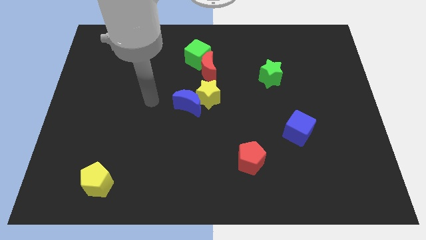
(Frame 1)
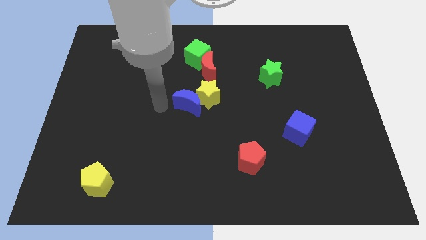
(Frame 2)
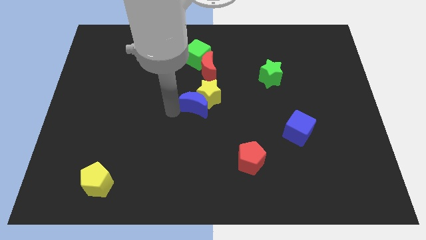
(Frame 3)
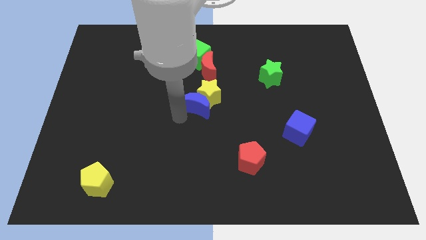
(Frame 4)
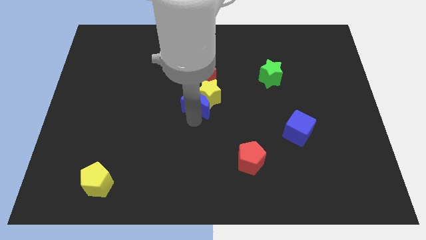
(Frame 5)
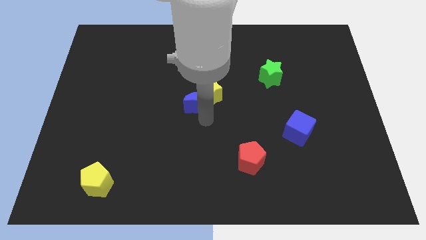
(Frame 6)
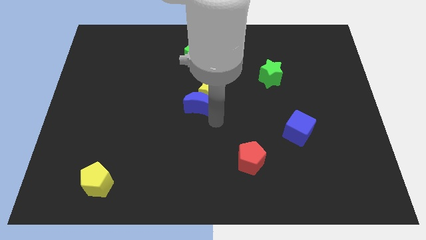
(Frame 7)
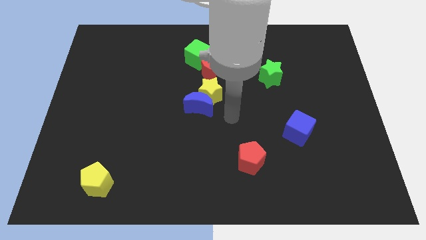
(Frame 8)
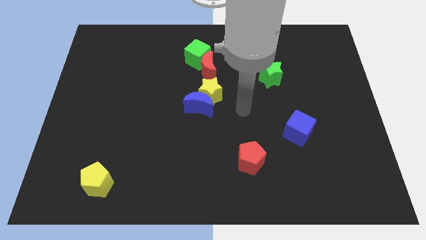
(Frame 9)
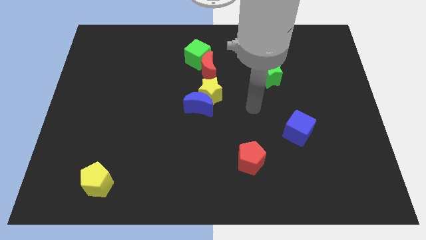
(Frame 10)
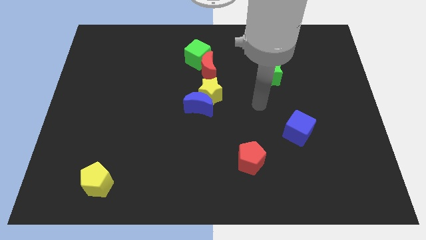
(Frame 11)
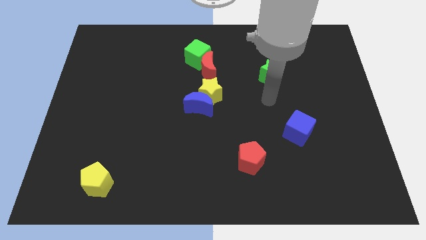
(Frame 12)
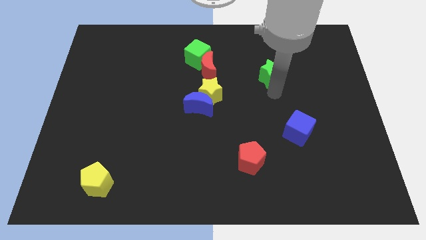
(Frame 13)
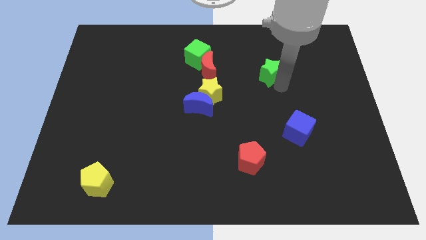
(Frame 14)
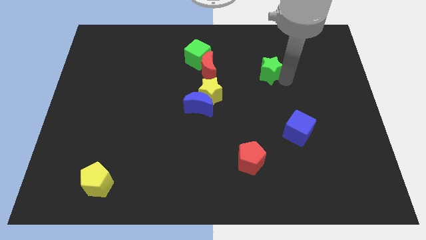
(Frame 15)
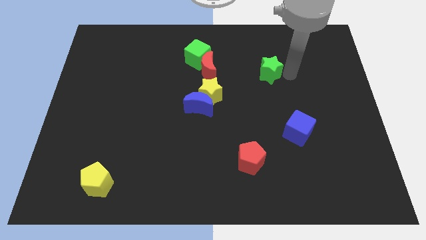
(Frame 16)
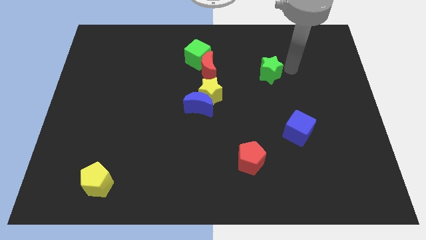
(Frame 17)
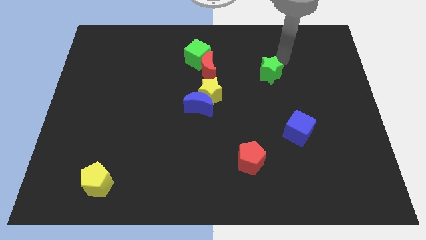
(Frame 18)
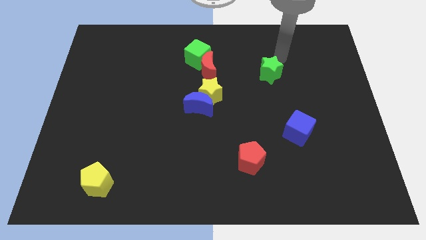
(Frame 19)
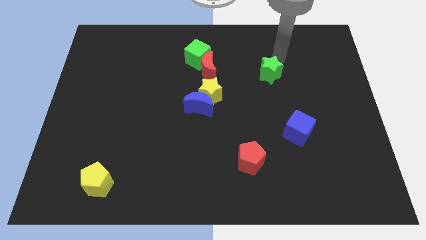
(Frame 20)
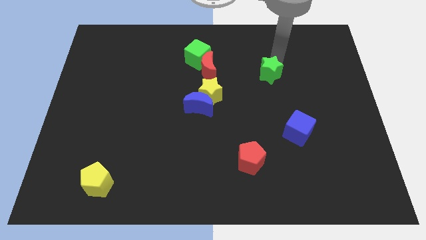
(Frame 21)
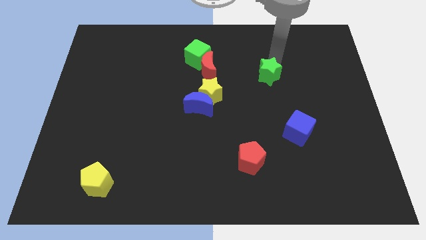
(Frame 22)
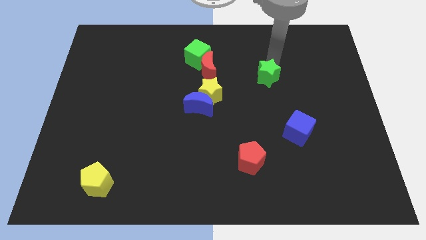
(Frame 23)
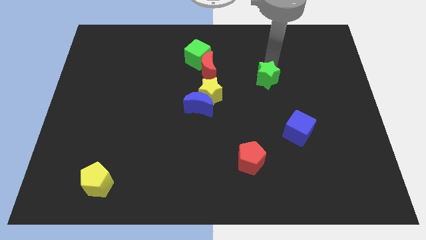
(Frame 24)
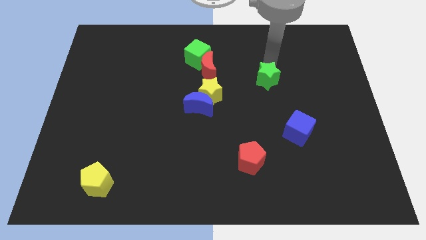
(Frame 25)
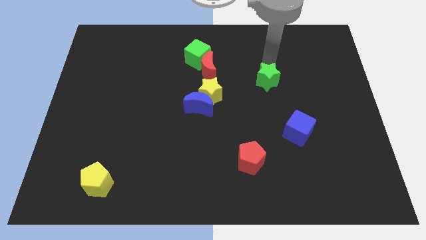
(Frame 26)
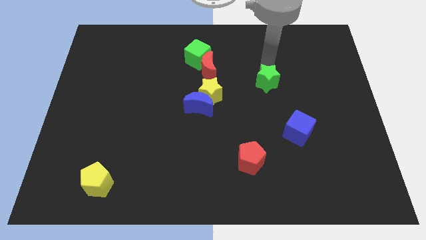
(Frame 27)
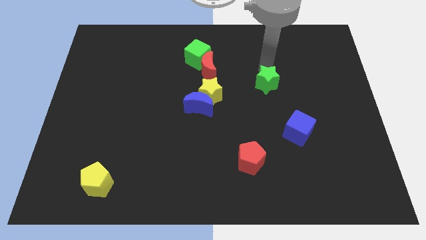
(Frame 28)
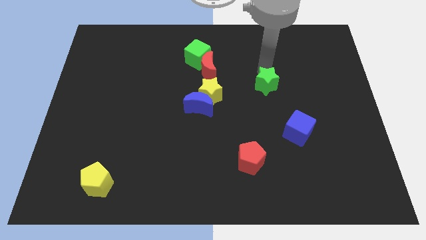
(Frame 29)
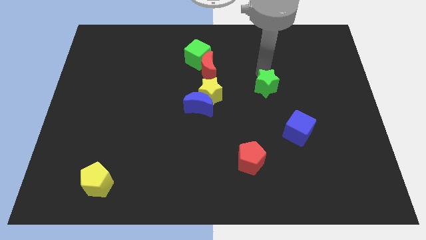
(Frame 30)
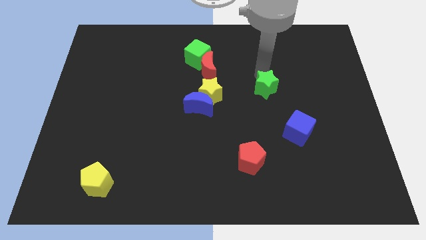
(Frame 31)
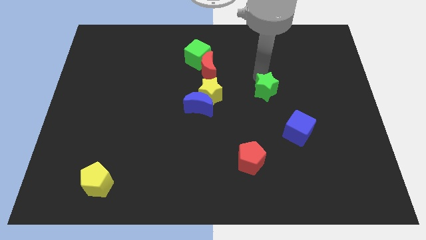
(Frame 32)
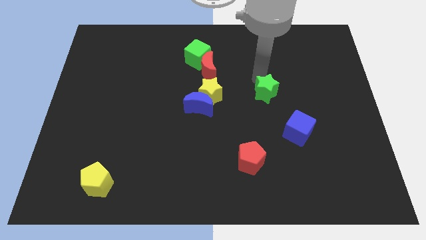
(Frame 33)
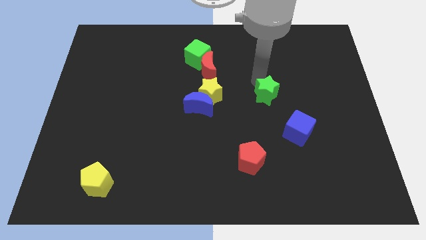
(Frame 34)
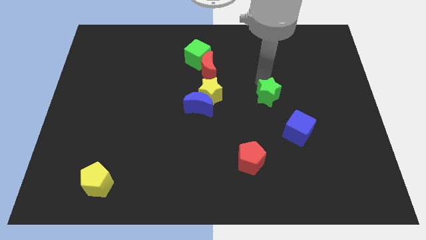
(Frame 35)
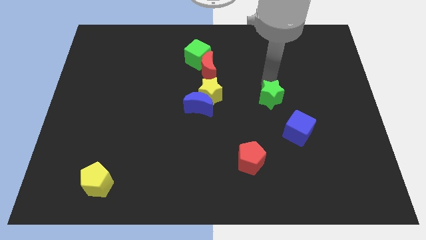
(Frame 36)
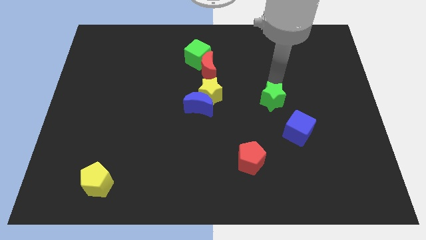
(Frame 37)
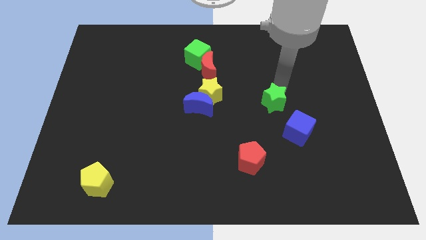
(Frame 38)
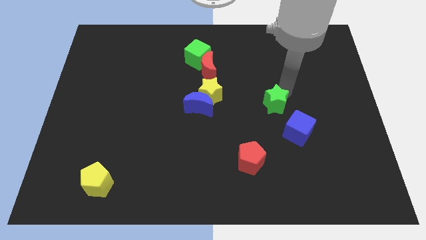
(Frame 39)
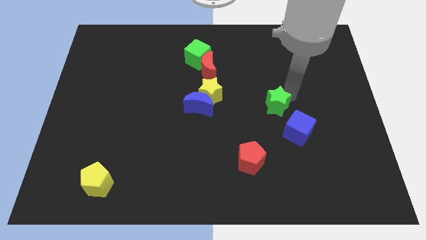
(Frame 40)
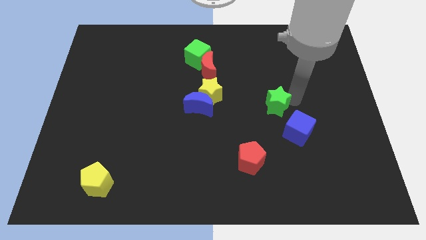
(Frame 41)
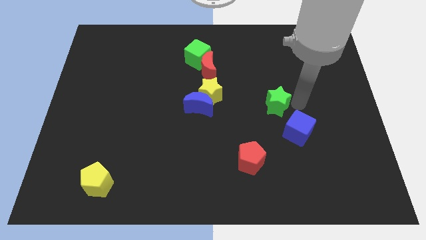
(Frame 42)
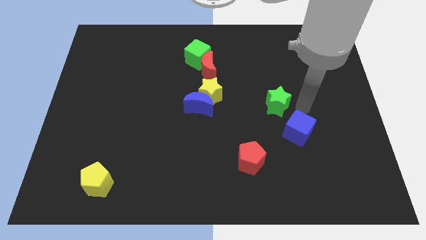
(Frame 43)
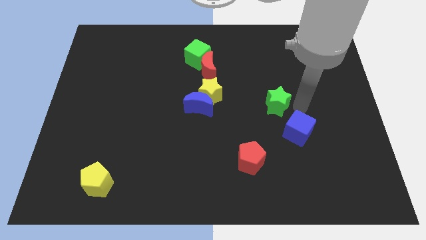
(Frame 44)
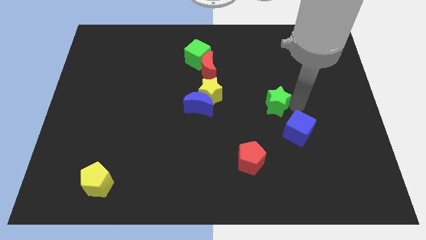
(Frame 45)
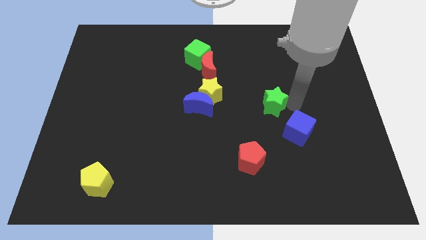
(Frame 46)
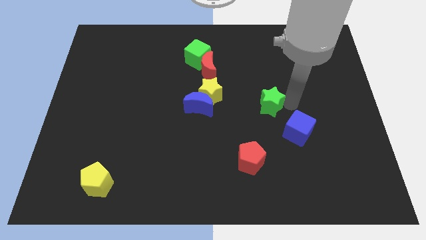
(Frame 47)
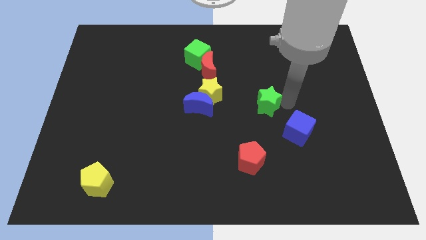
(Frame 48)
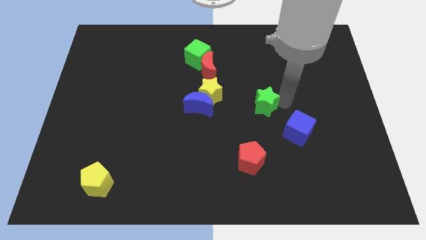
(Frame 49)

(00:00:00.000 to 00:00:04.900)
slide the green star down and left somewhat

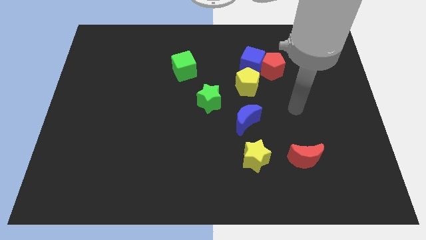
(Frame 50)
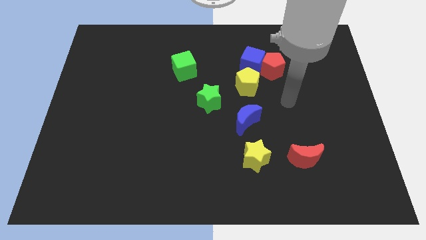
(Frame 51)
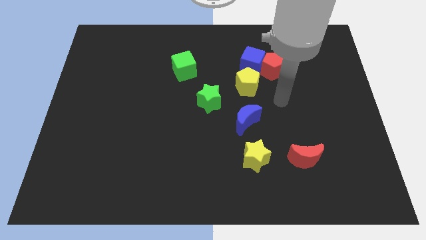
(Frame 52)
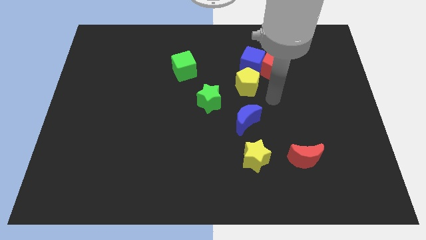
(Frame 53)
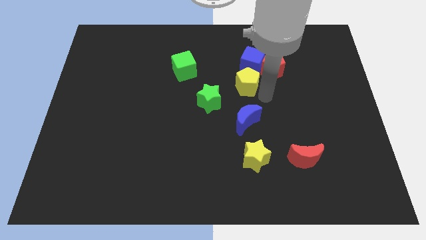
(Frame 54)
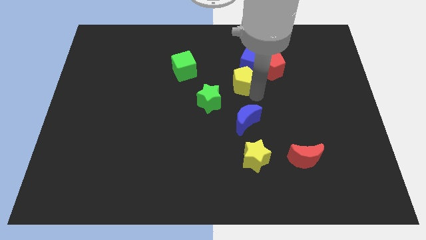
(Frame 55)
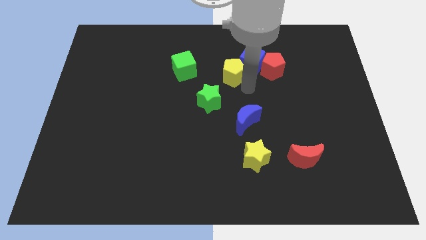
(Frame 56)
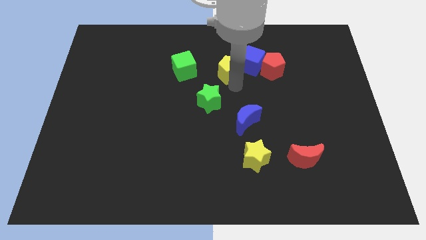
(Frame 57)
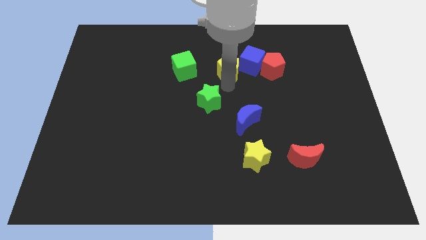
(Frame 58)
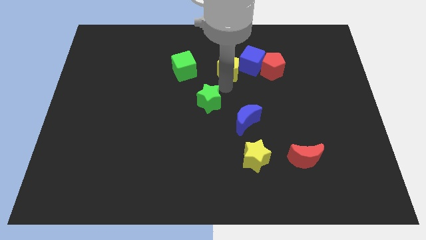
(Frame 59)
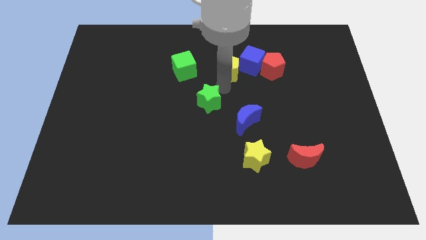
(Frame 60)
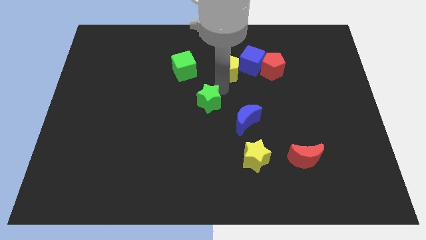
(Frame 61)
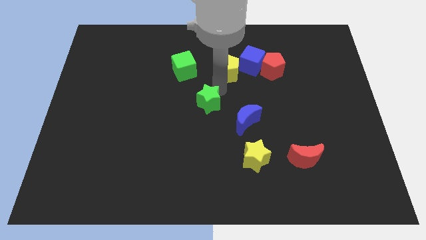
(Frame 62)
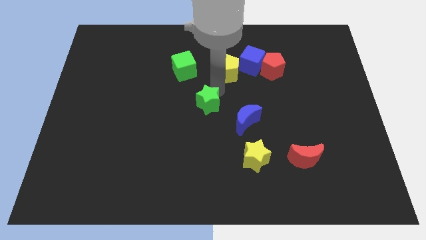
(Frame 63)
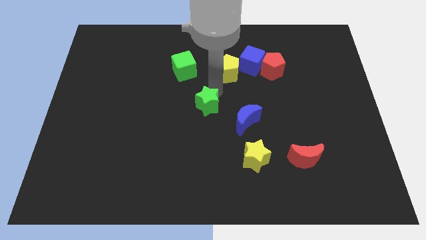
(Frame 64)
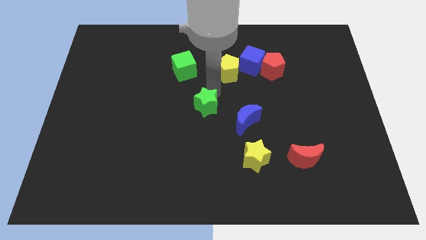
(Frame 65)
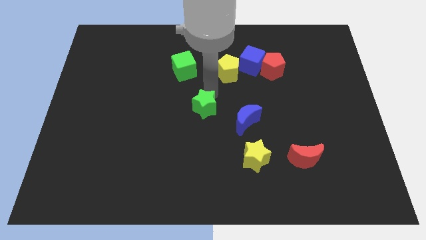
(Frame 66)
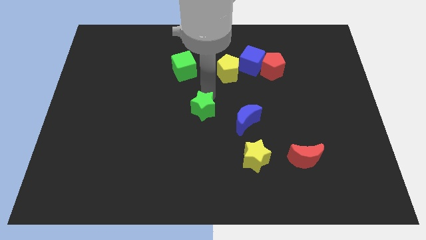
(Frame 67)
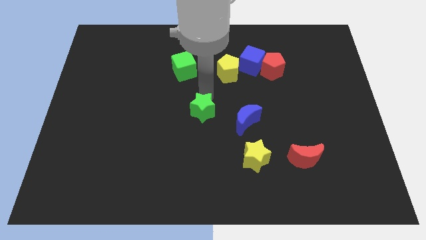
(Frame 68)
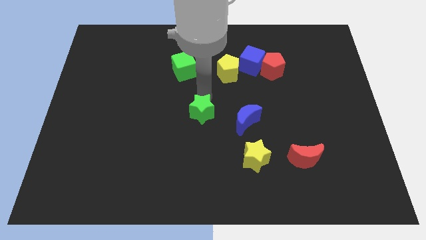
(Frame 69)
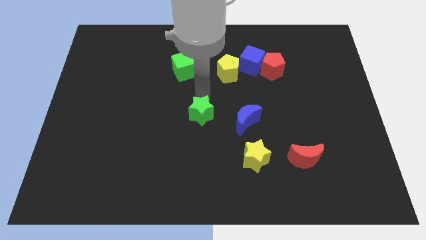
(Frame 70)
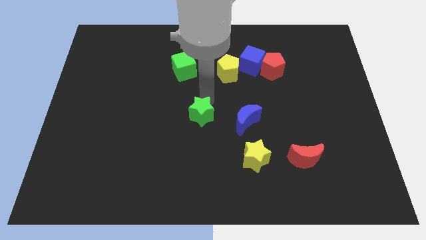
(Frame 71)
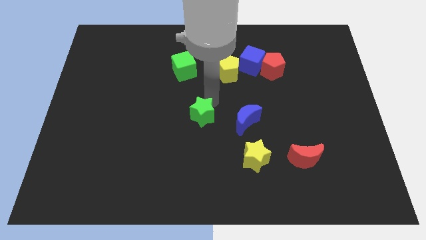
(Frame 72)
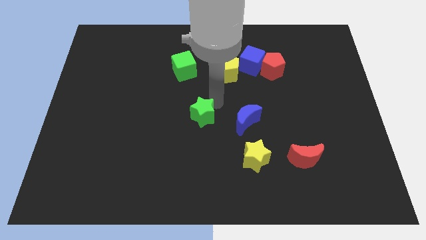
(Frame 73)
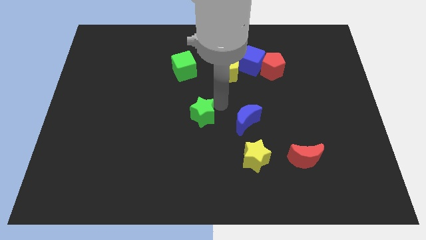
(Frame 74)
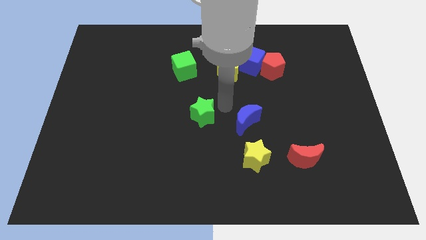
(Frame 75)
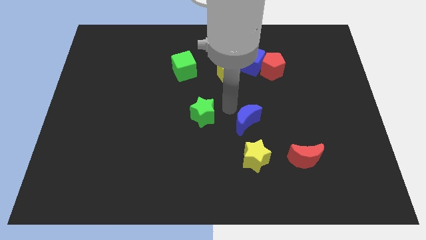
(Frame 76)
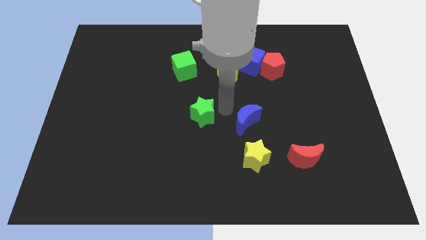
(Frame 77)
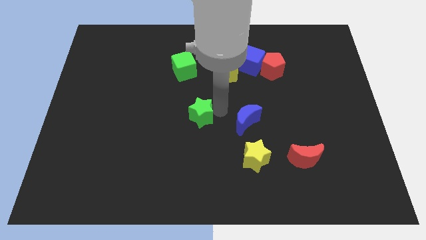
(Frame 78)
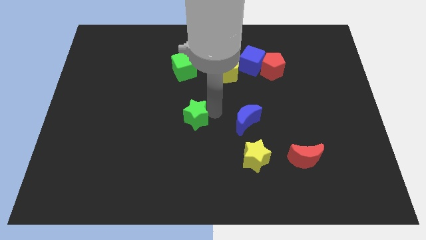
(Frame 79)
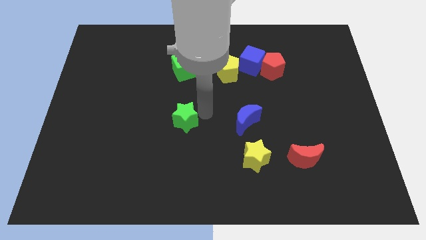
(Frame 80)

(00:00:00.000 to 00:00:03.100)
slightly slide the green star downwards and to the left diagonally

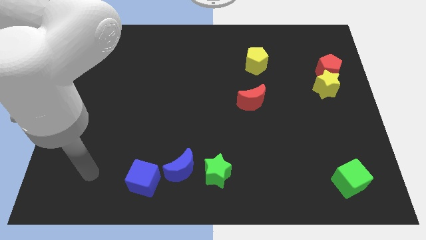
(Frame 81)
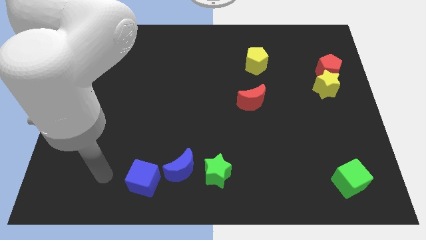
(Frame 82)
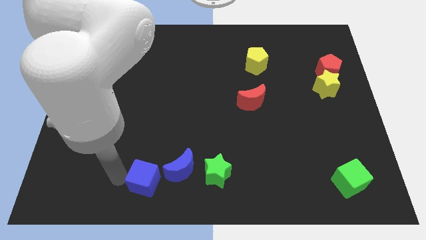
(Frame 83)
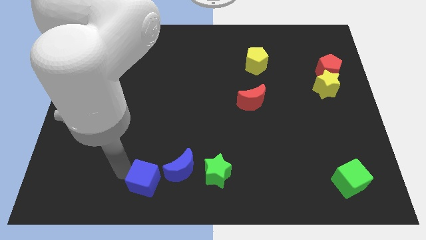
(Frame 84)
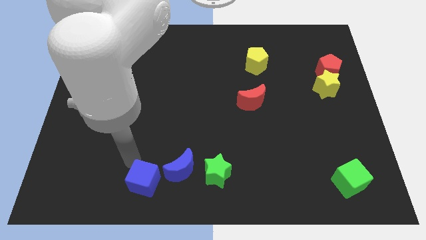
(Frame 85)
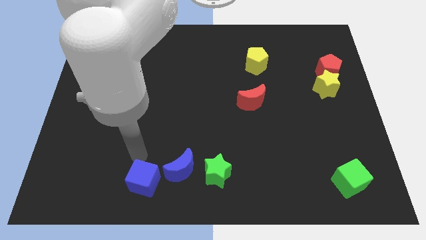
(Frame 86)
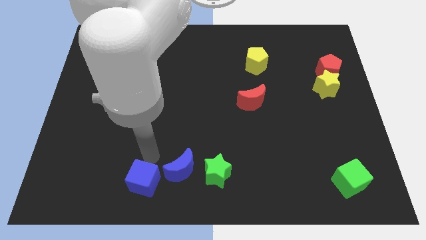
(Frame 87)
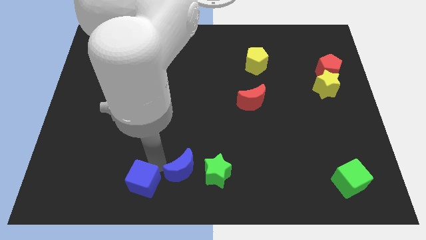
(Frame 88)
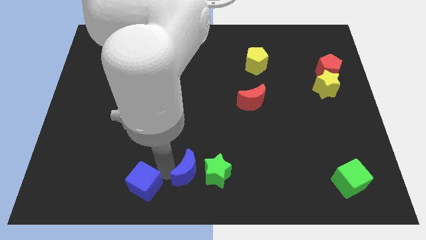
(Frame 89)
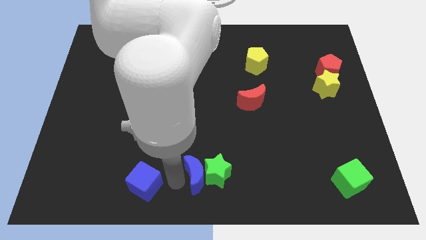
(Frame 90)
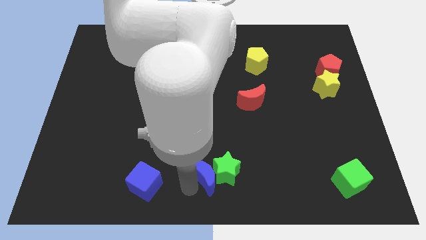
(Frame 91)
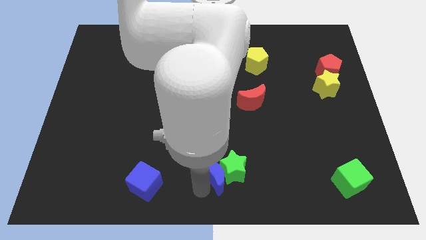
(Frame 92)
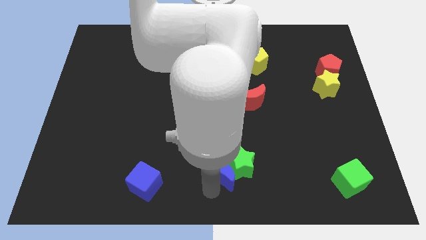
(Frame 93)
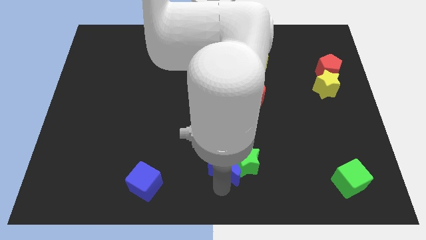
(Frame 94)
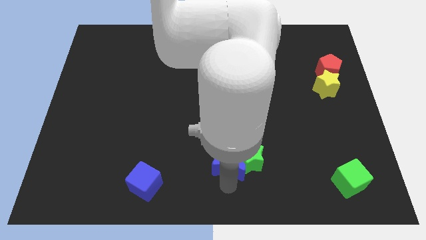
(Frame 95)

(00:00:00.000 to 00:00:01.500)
slightly slide the green star upwards and to the right diagonally
